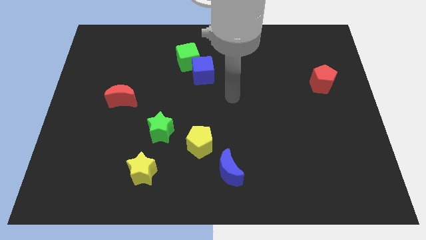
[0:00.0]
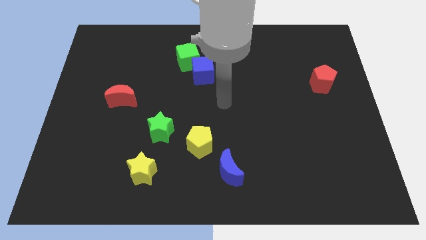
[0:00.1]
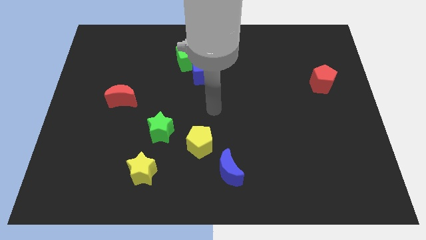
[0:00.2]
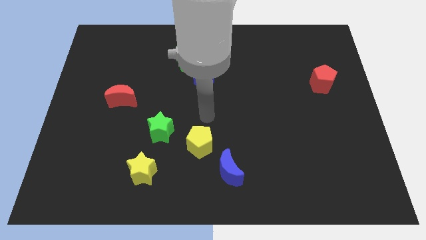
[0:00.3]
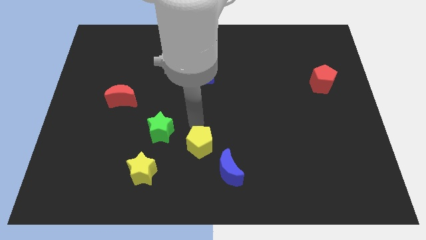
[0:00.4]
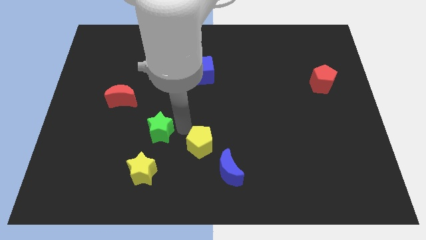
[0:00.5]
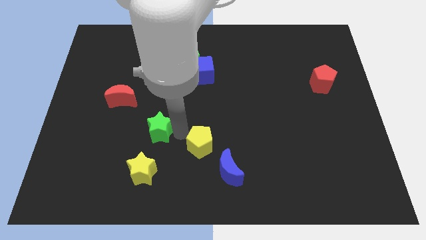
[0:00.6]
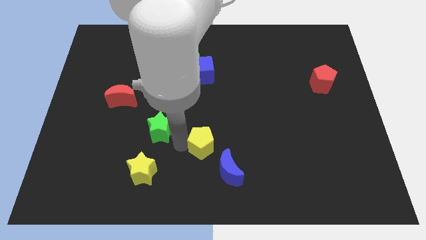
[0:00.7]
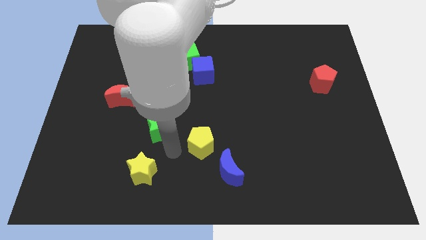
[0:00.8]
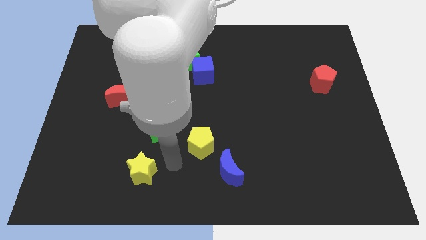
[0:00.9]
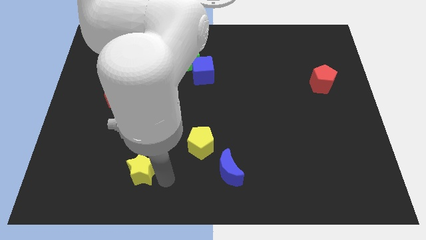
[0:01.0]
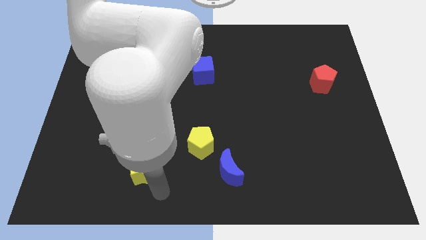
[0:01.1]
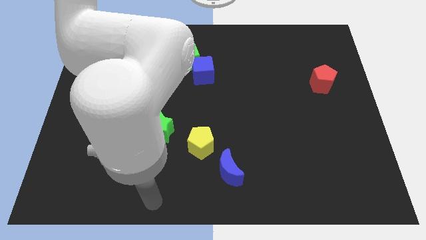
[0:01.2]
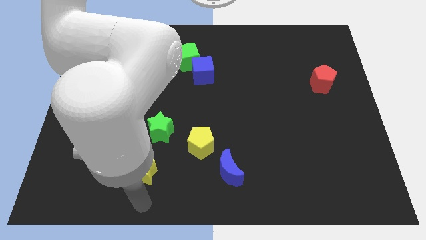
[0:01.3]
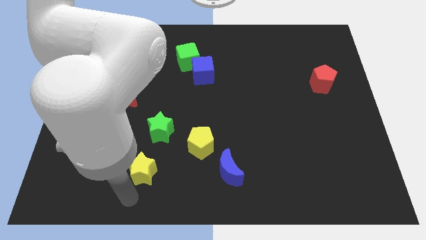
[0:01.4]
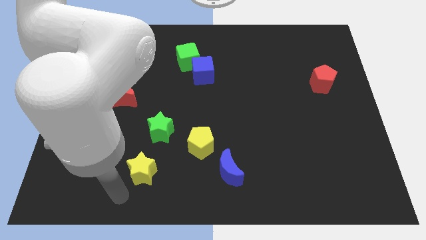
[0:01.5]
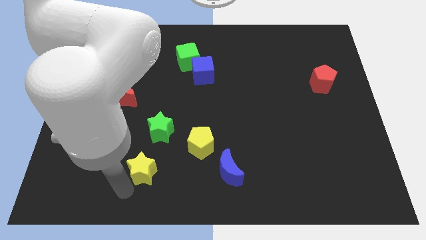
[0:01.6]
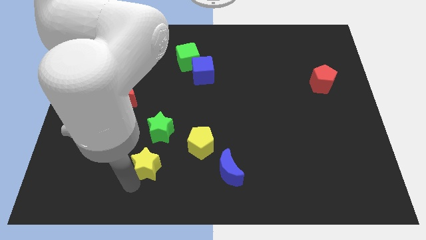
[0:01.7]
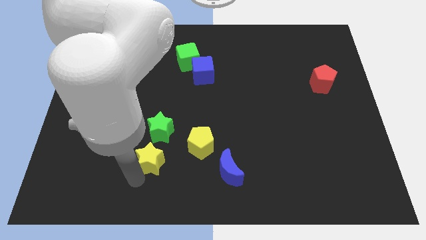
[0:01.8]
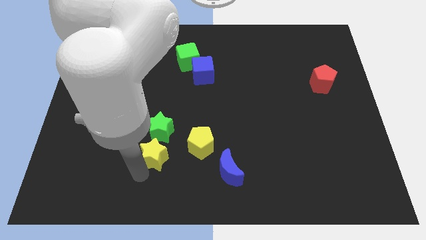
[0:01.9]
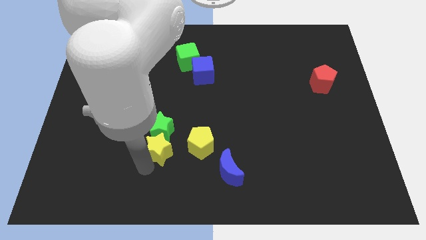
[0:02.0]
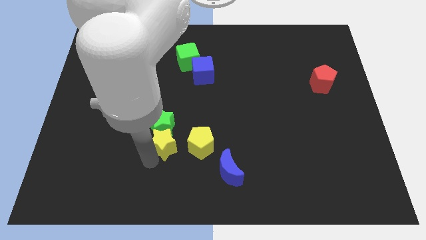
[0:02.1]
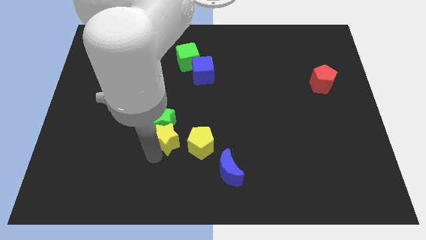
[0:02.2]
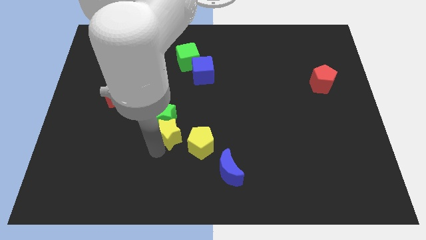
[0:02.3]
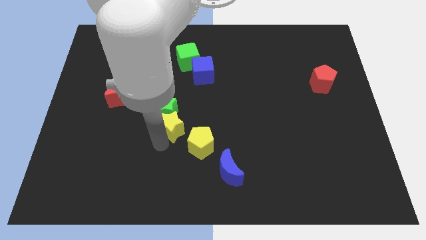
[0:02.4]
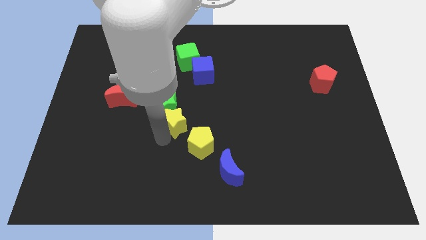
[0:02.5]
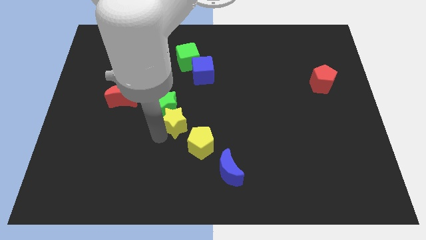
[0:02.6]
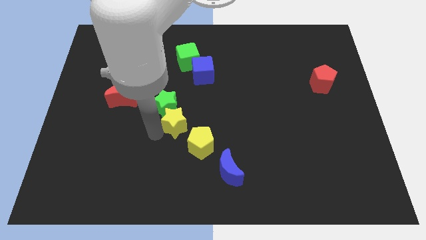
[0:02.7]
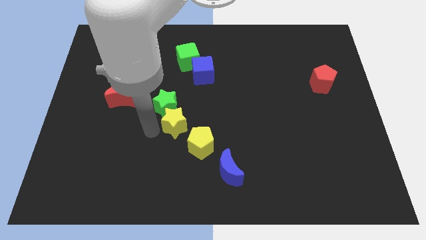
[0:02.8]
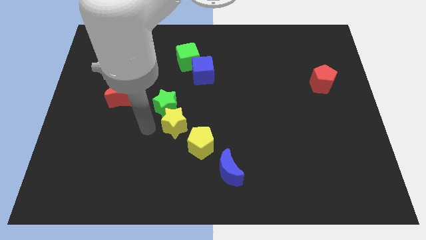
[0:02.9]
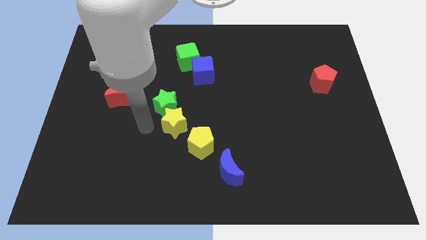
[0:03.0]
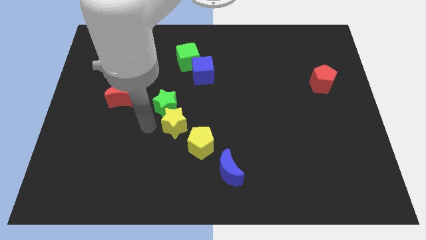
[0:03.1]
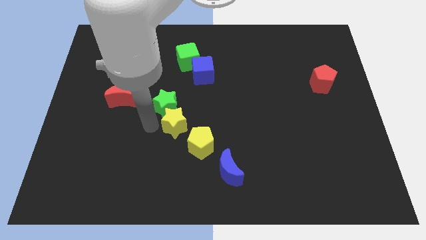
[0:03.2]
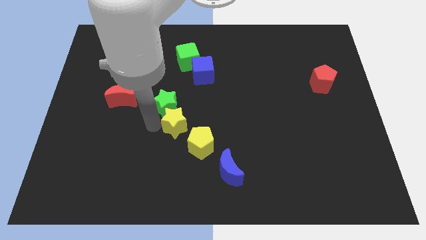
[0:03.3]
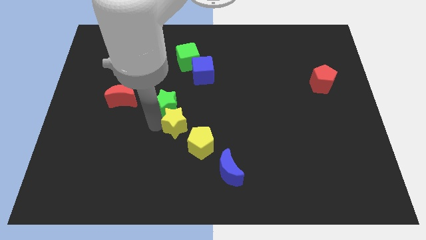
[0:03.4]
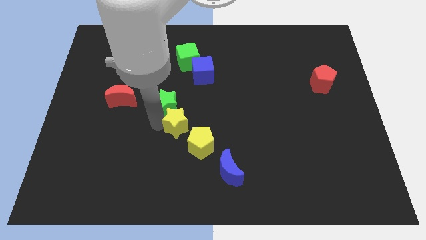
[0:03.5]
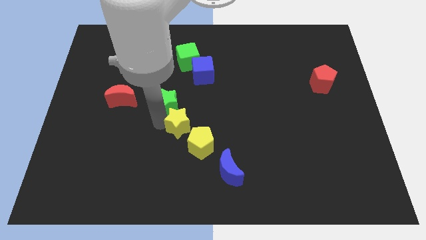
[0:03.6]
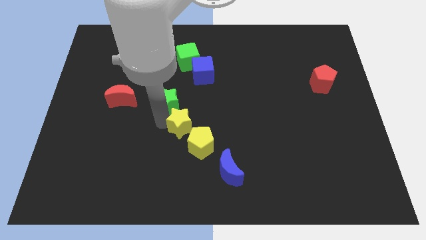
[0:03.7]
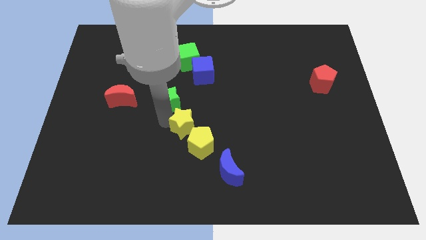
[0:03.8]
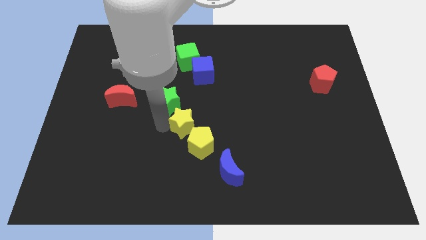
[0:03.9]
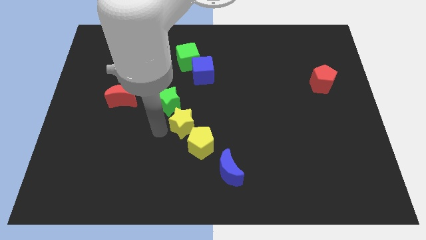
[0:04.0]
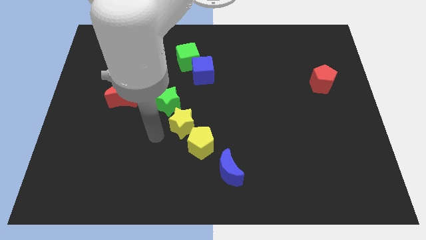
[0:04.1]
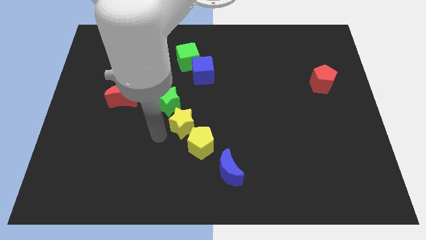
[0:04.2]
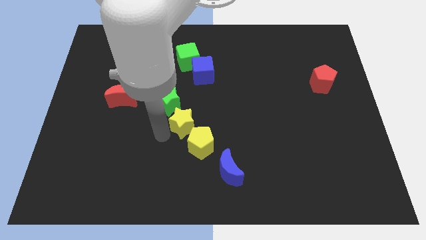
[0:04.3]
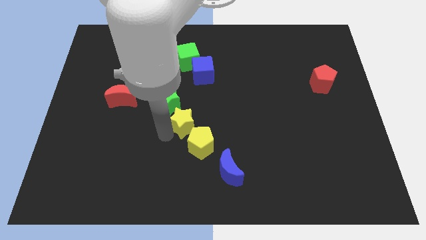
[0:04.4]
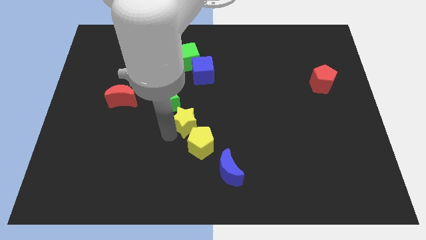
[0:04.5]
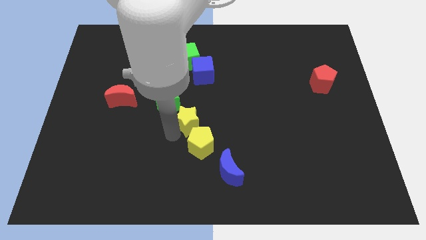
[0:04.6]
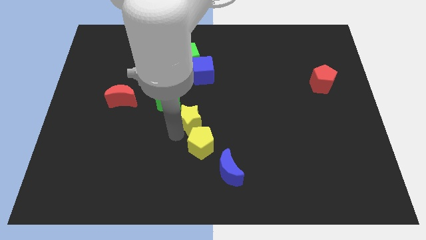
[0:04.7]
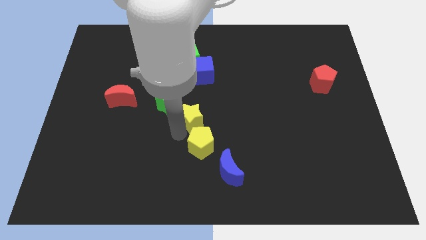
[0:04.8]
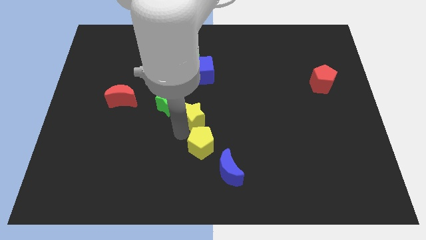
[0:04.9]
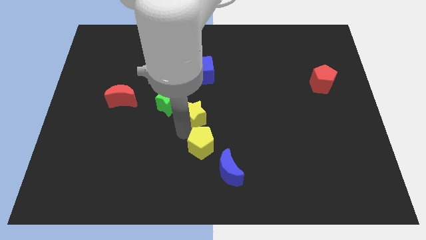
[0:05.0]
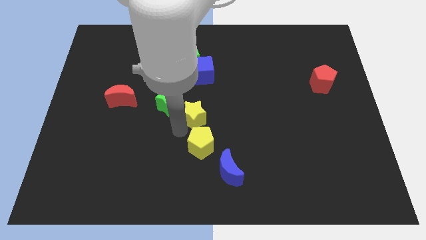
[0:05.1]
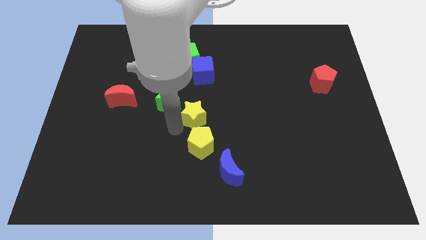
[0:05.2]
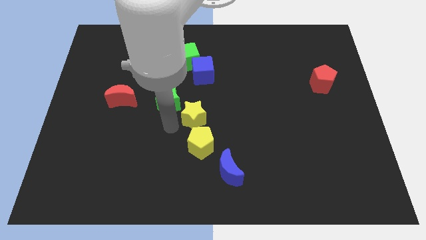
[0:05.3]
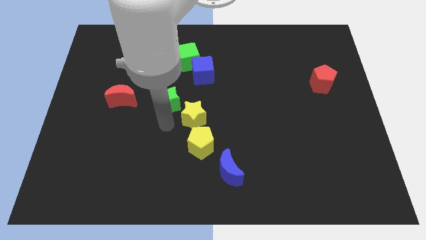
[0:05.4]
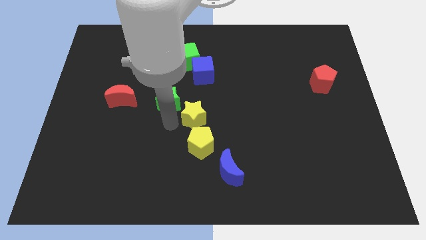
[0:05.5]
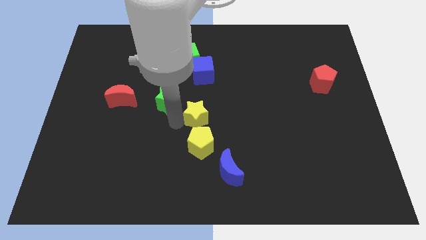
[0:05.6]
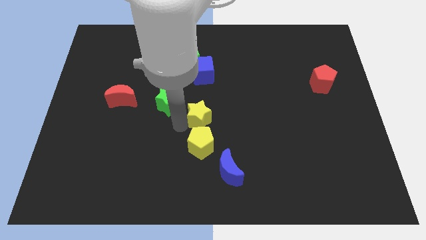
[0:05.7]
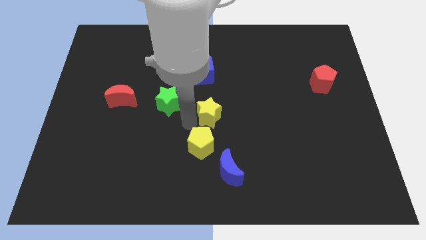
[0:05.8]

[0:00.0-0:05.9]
slide the yellow star diagonally upwards and right

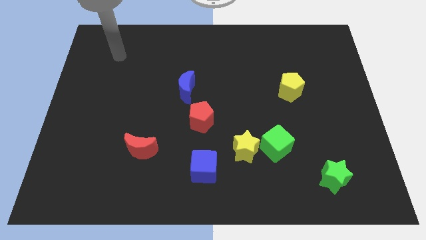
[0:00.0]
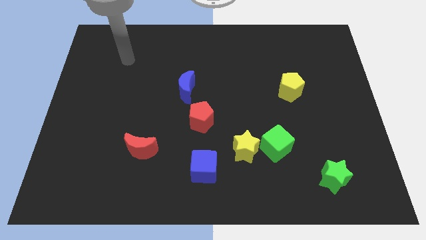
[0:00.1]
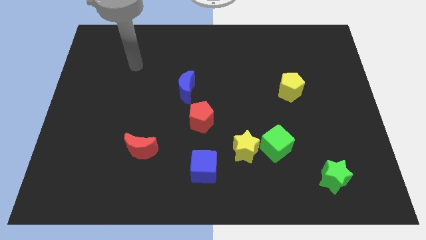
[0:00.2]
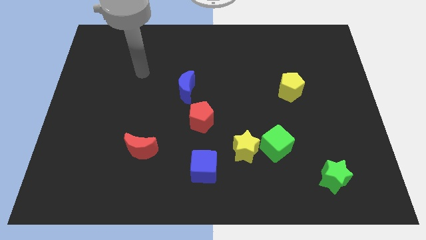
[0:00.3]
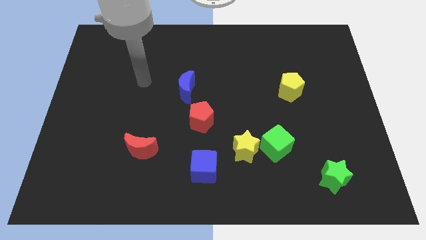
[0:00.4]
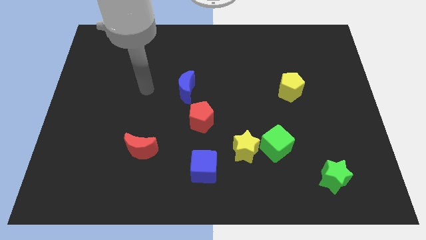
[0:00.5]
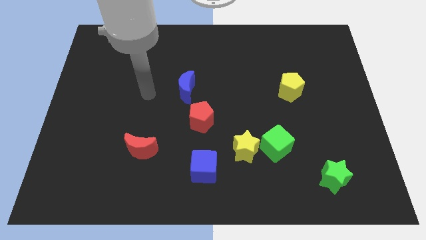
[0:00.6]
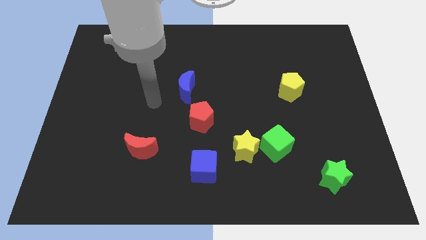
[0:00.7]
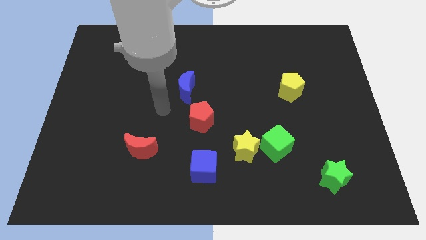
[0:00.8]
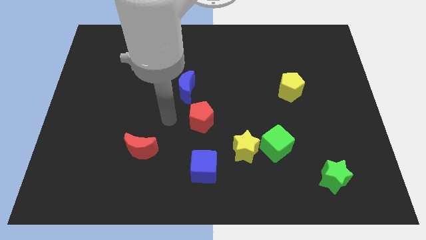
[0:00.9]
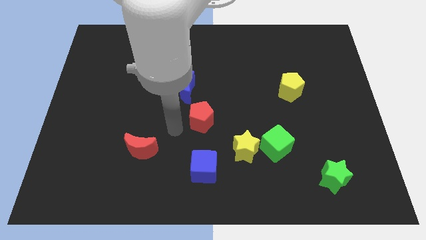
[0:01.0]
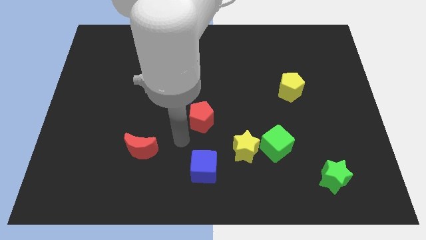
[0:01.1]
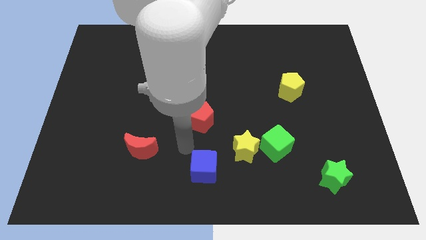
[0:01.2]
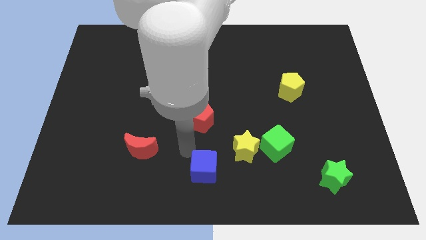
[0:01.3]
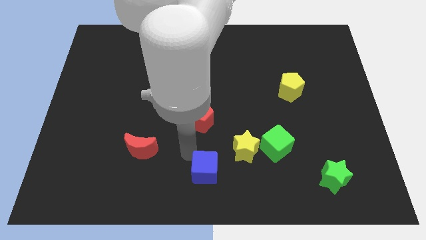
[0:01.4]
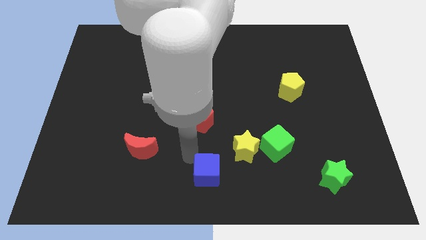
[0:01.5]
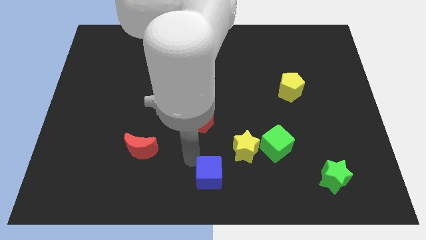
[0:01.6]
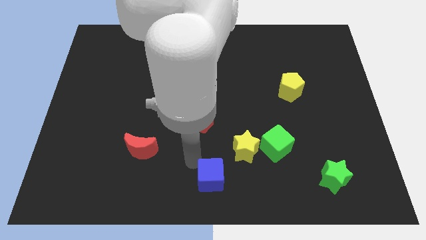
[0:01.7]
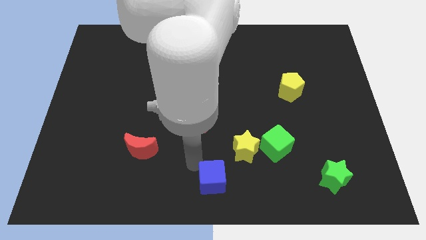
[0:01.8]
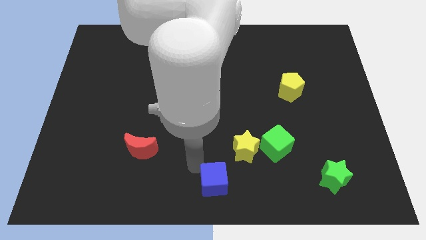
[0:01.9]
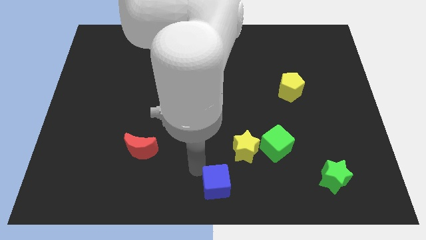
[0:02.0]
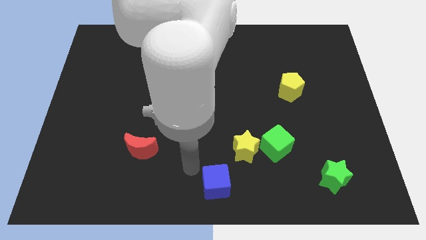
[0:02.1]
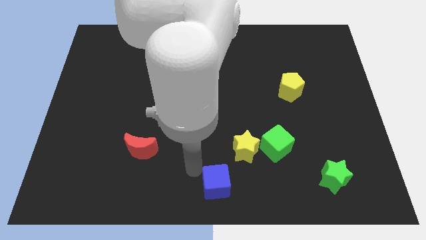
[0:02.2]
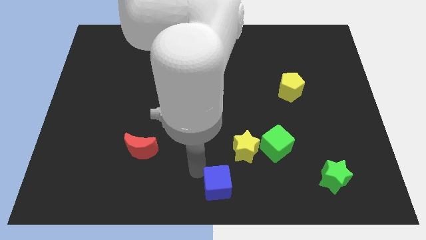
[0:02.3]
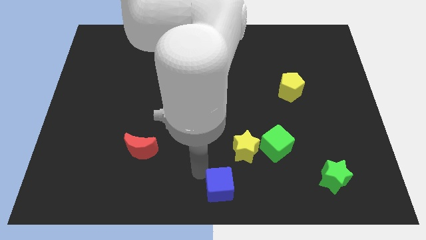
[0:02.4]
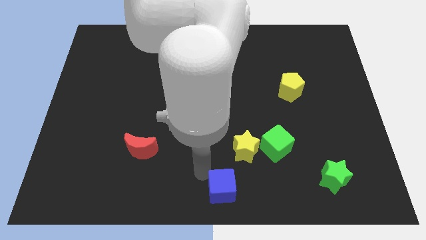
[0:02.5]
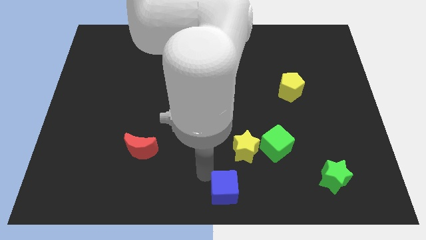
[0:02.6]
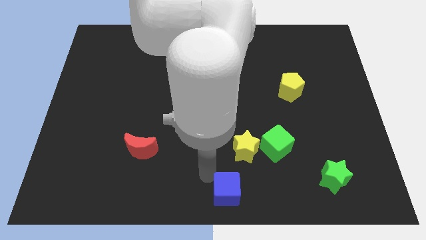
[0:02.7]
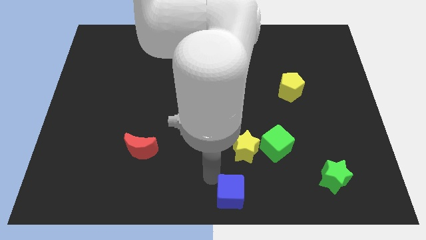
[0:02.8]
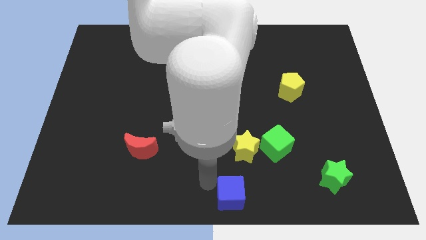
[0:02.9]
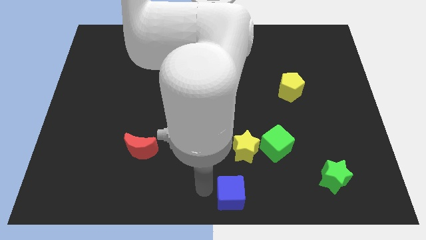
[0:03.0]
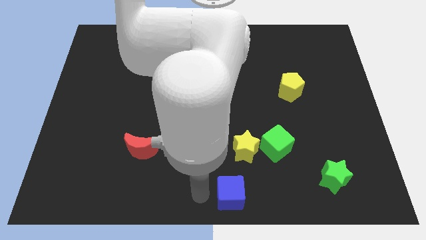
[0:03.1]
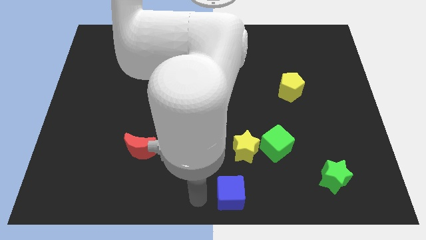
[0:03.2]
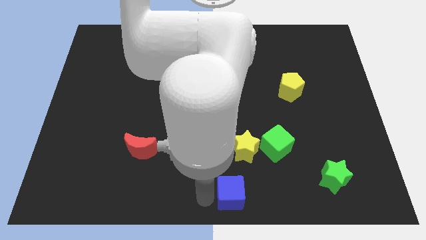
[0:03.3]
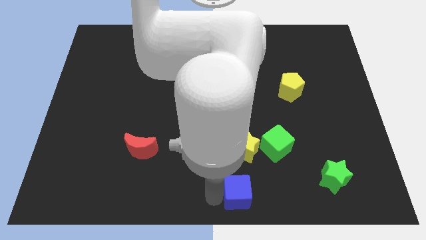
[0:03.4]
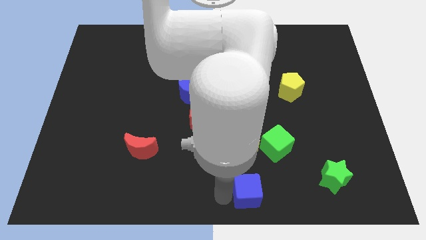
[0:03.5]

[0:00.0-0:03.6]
push the blue cube to the right slightly
